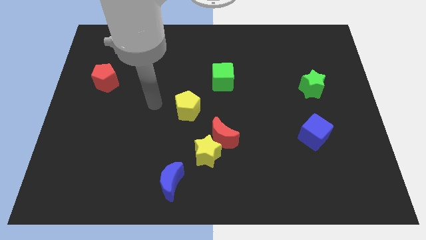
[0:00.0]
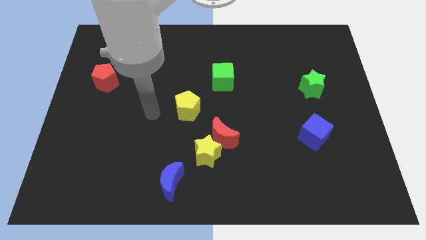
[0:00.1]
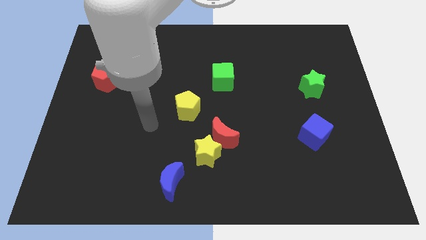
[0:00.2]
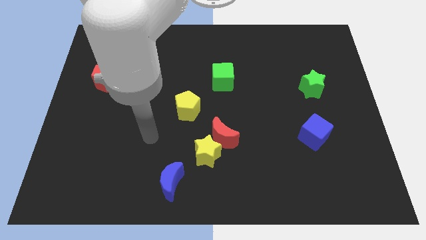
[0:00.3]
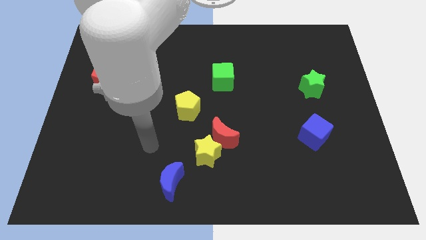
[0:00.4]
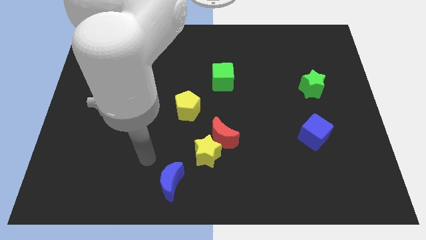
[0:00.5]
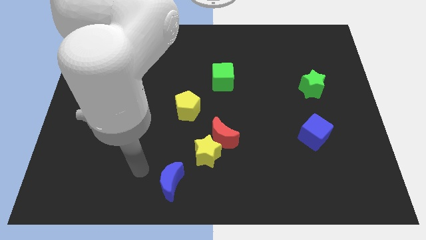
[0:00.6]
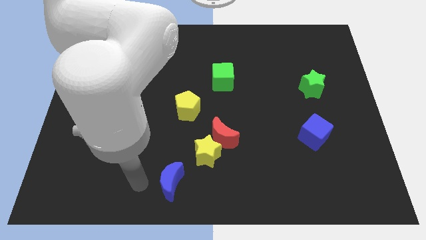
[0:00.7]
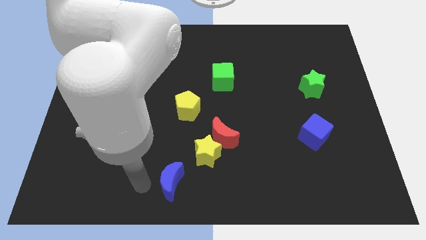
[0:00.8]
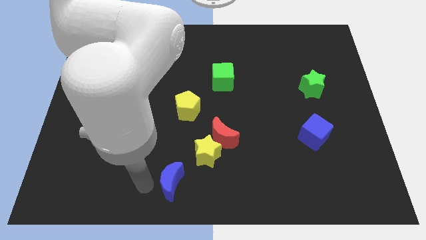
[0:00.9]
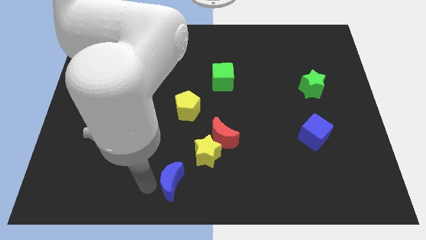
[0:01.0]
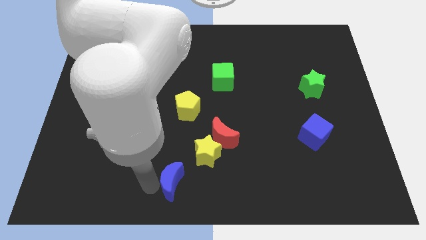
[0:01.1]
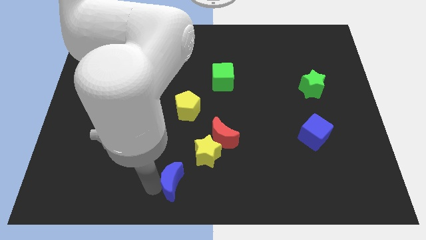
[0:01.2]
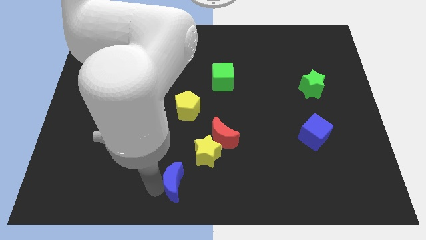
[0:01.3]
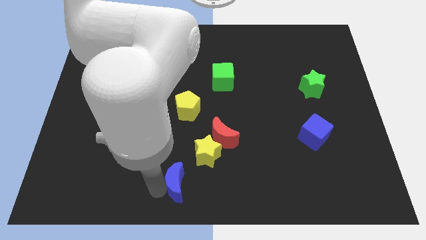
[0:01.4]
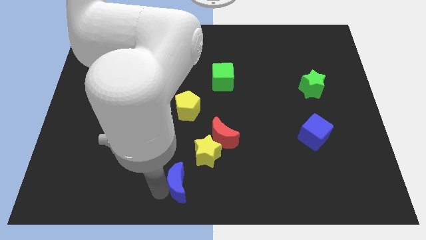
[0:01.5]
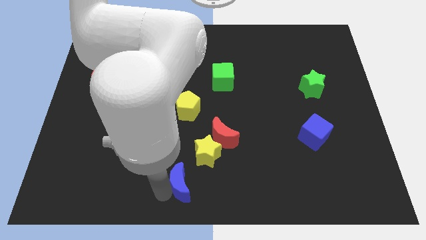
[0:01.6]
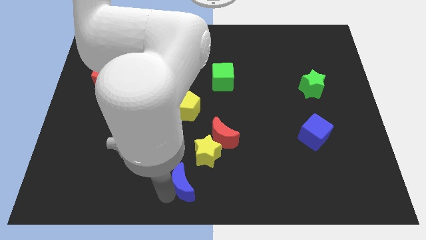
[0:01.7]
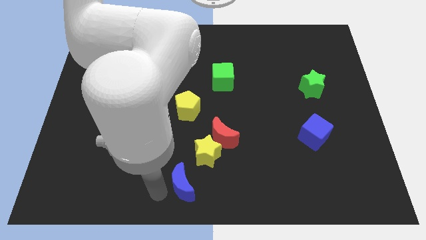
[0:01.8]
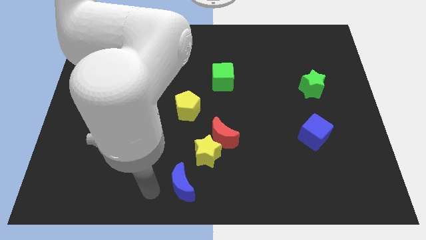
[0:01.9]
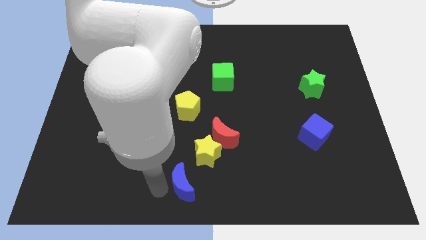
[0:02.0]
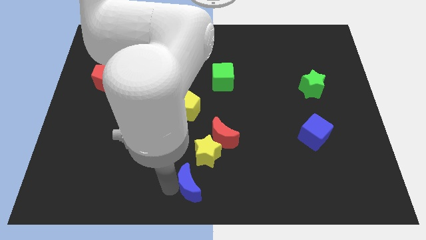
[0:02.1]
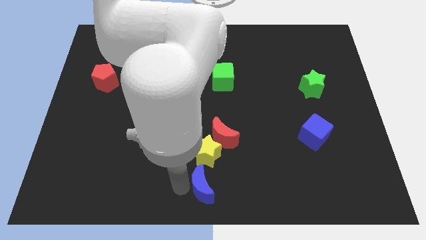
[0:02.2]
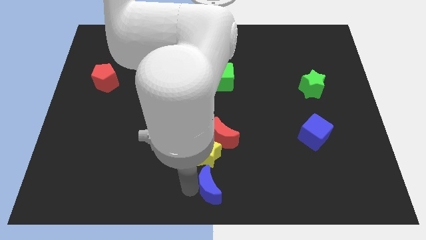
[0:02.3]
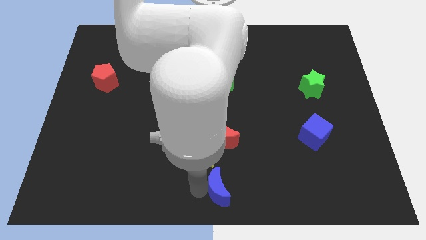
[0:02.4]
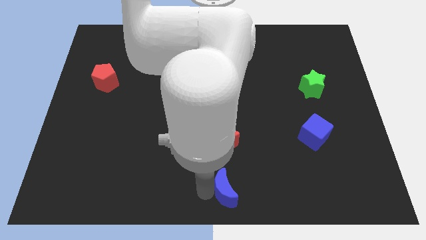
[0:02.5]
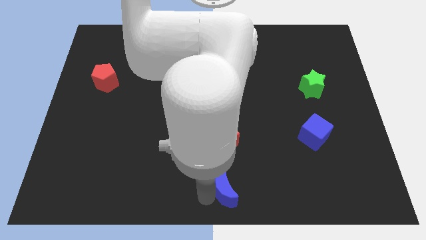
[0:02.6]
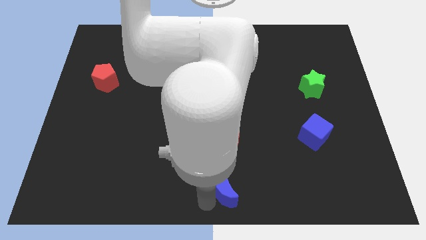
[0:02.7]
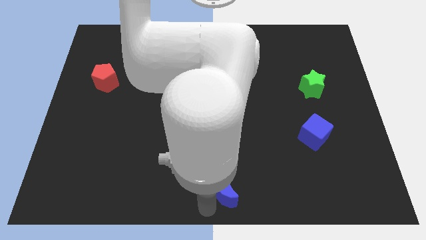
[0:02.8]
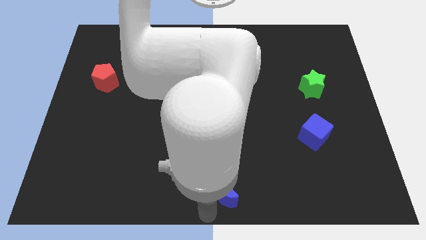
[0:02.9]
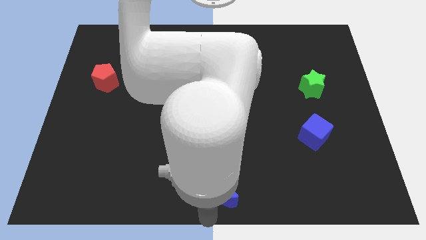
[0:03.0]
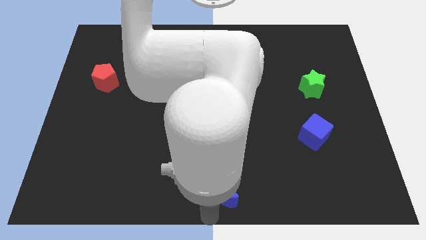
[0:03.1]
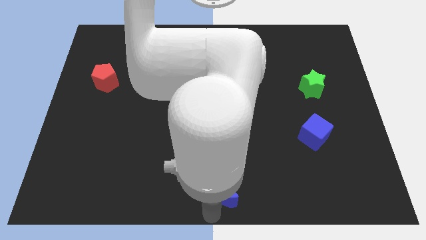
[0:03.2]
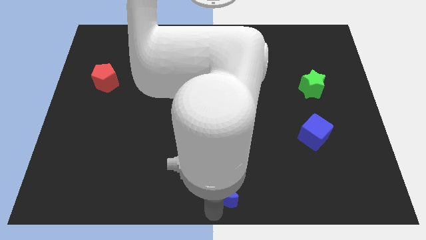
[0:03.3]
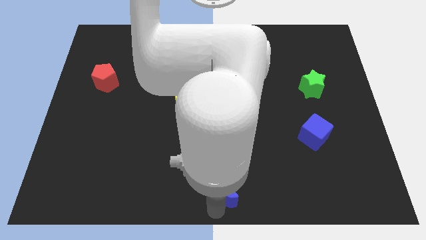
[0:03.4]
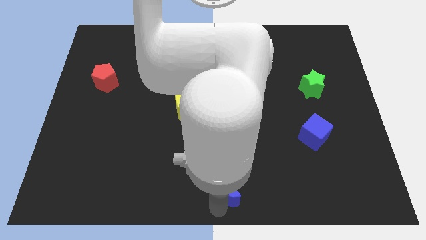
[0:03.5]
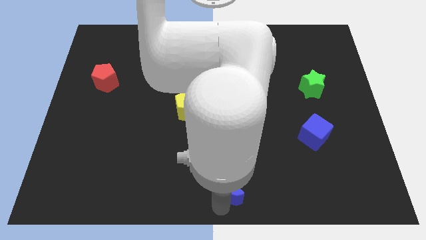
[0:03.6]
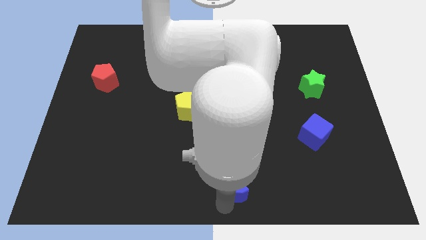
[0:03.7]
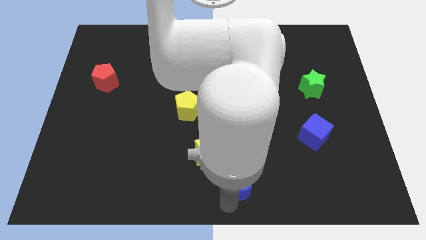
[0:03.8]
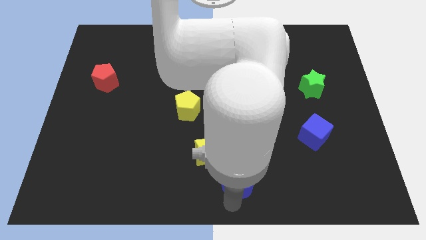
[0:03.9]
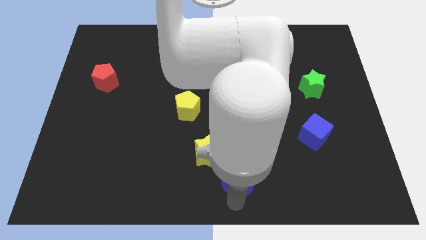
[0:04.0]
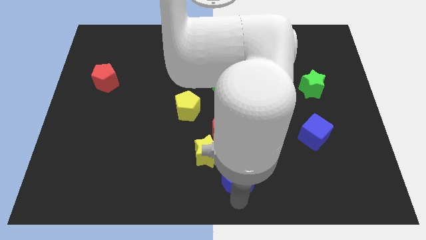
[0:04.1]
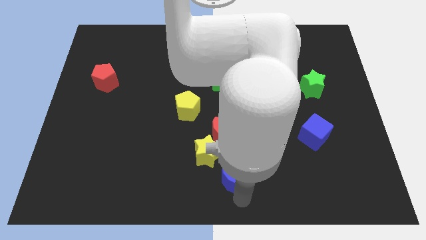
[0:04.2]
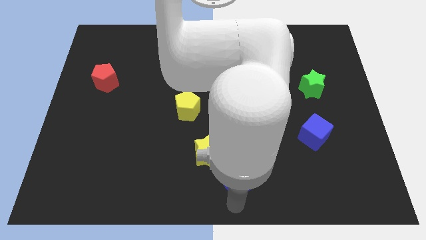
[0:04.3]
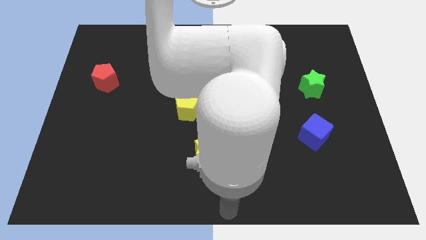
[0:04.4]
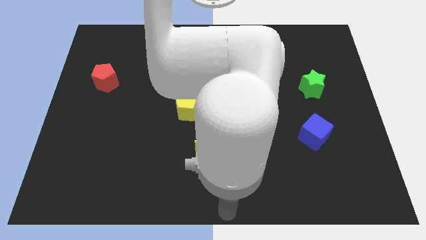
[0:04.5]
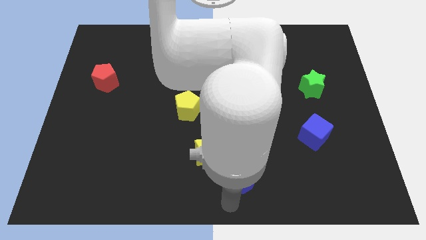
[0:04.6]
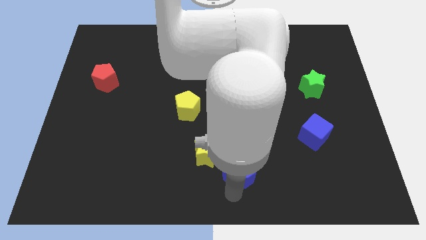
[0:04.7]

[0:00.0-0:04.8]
move the blue moon upwards and then to the right slightly

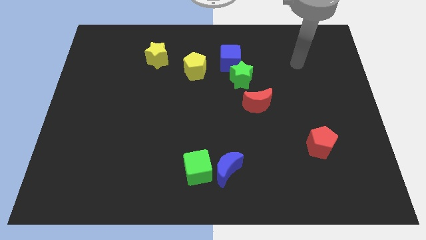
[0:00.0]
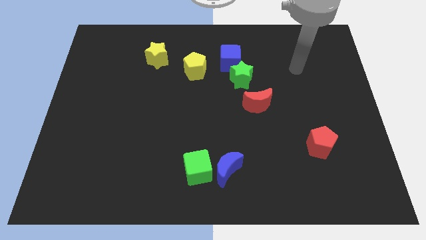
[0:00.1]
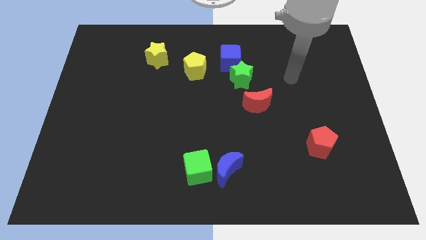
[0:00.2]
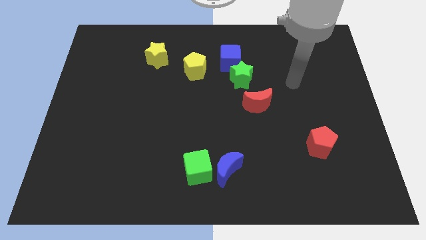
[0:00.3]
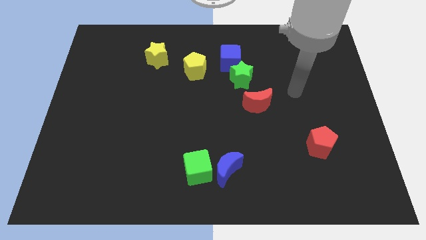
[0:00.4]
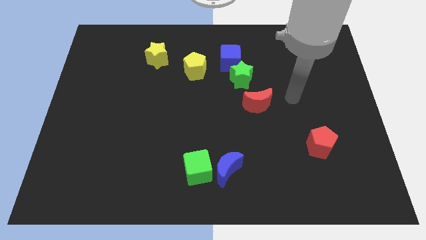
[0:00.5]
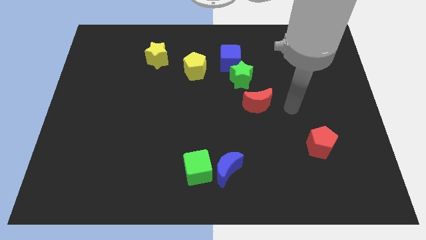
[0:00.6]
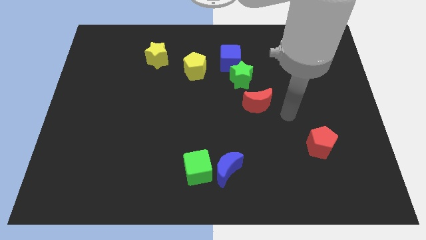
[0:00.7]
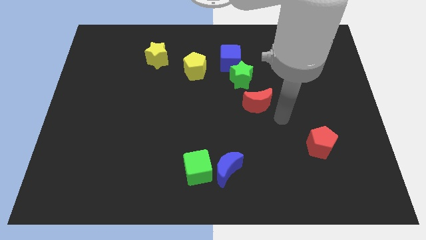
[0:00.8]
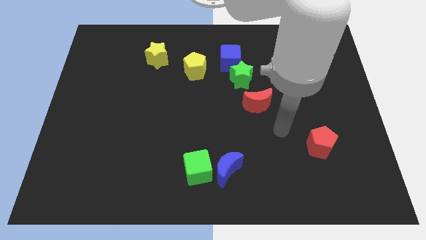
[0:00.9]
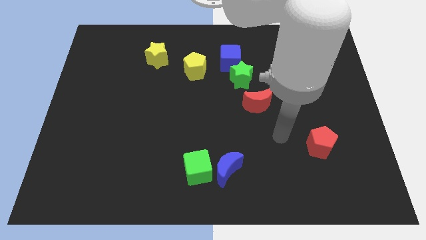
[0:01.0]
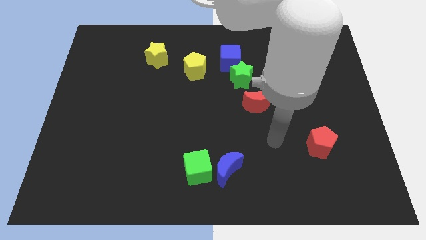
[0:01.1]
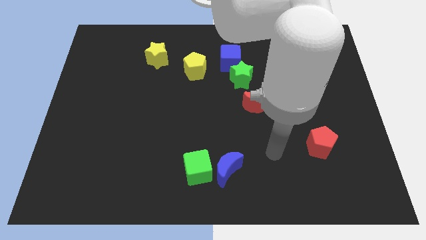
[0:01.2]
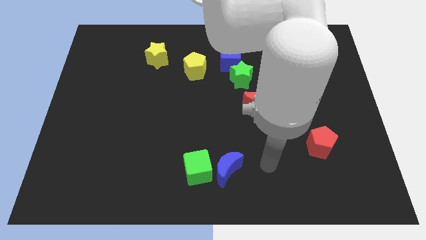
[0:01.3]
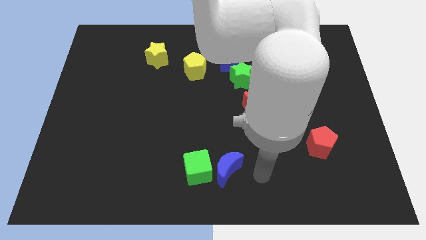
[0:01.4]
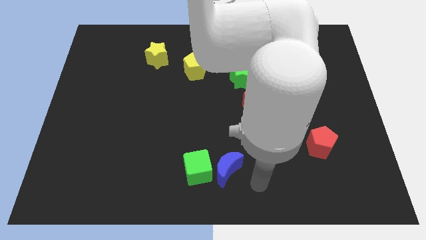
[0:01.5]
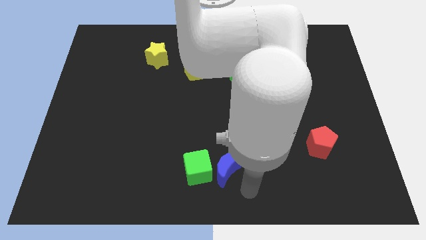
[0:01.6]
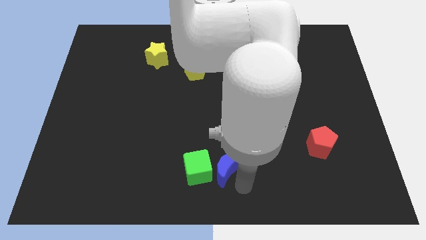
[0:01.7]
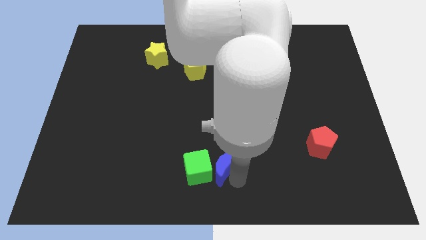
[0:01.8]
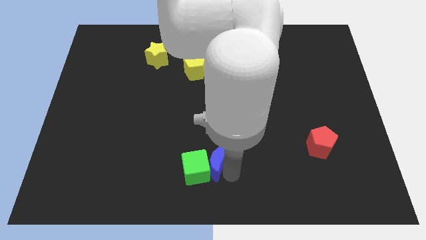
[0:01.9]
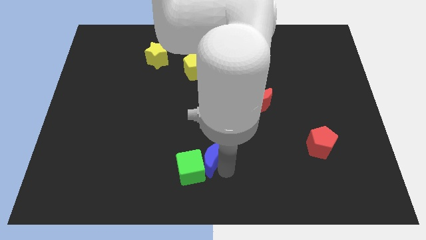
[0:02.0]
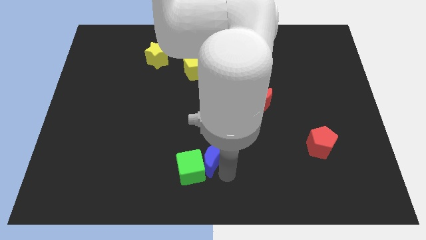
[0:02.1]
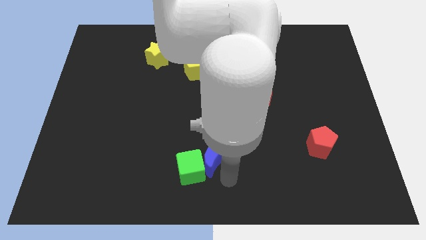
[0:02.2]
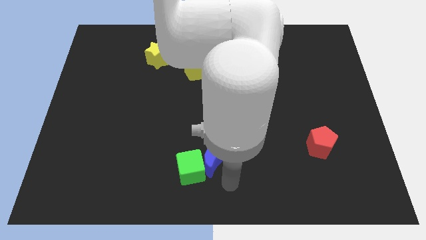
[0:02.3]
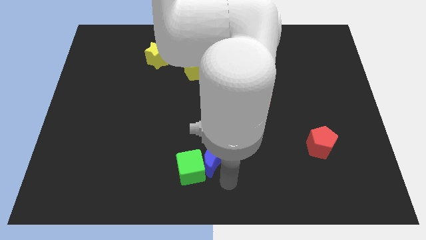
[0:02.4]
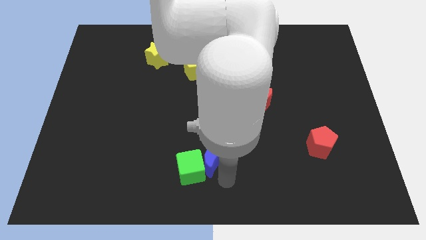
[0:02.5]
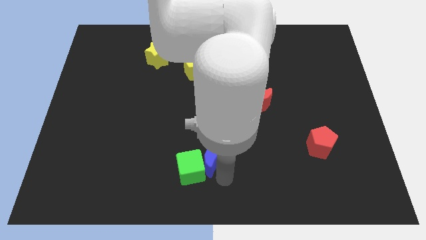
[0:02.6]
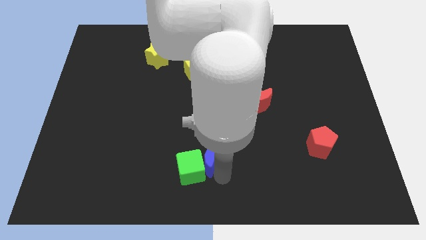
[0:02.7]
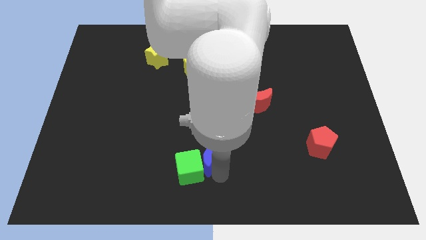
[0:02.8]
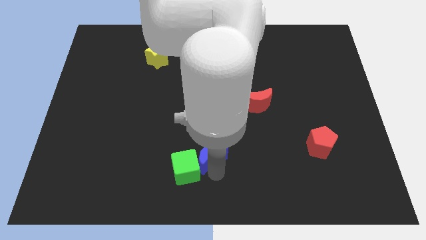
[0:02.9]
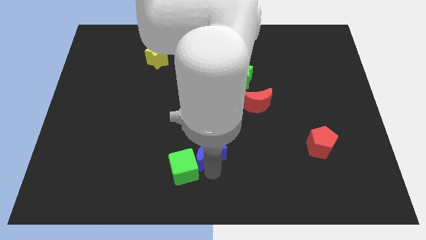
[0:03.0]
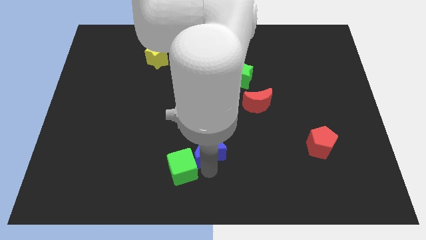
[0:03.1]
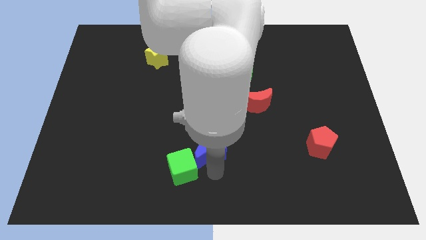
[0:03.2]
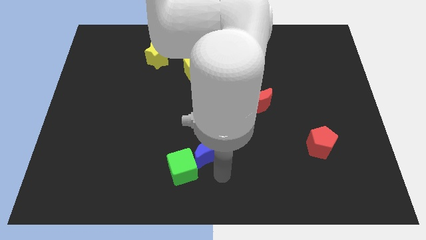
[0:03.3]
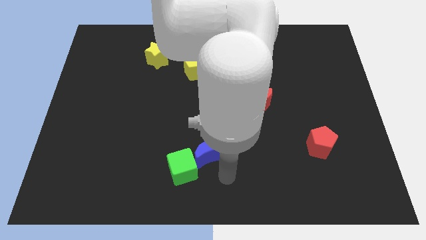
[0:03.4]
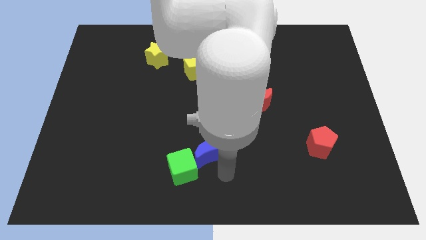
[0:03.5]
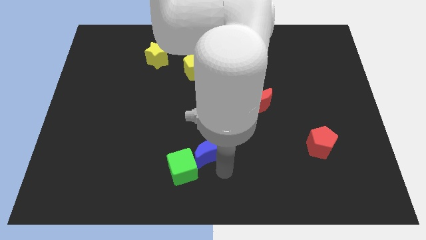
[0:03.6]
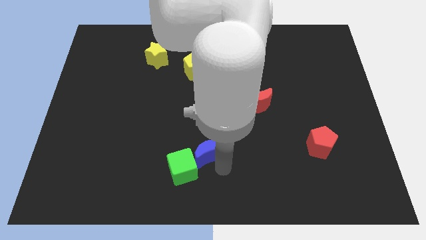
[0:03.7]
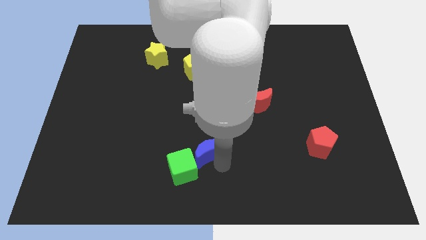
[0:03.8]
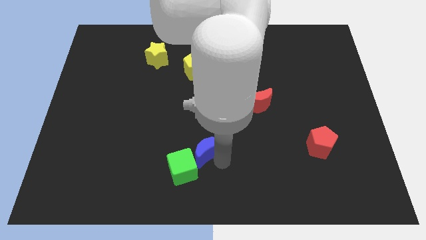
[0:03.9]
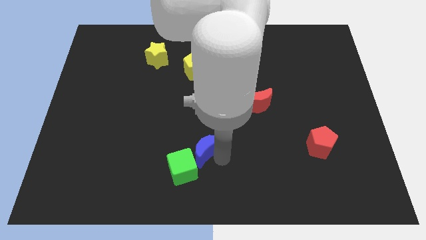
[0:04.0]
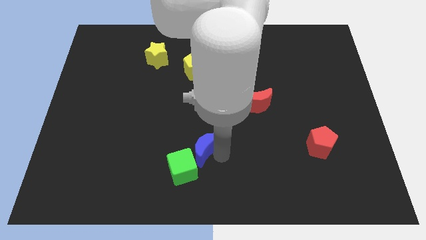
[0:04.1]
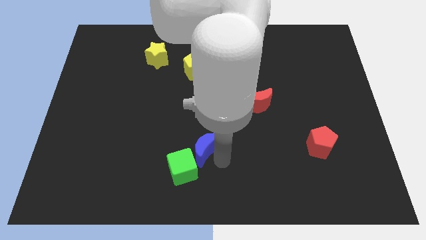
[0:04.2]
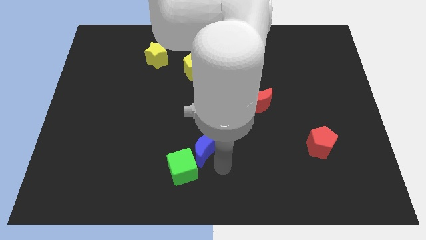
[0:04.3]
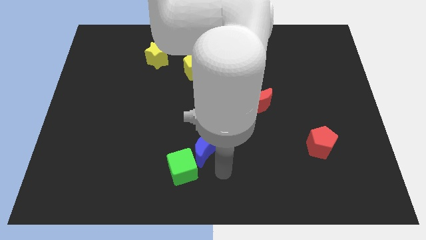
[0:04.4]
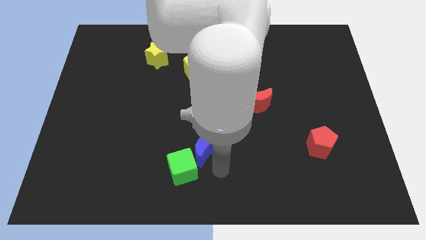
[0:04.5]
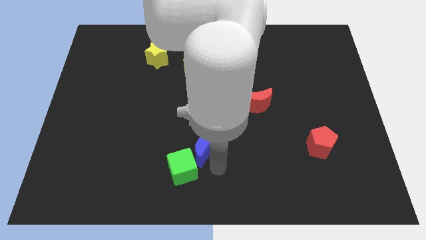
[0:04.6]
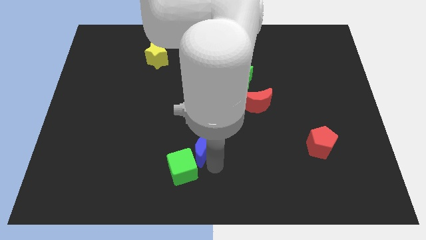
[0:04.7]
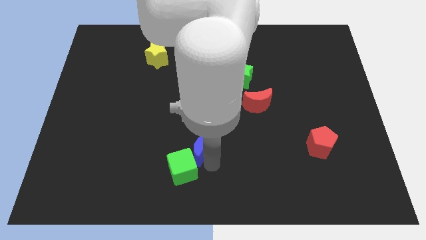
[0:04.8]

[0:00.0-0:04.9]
slide the blue moon up and to the left somewhat
